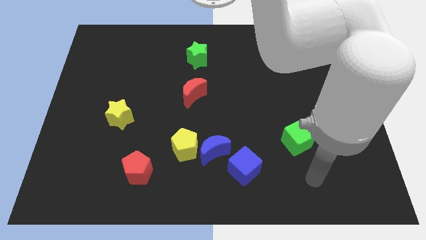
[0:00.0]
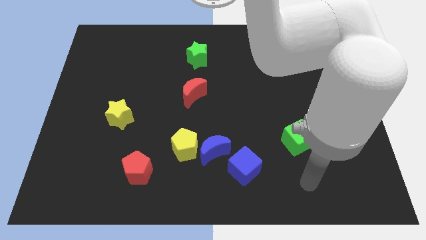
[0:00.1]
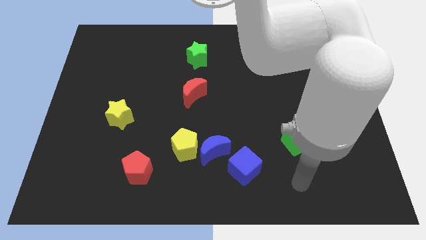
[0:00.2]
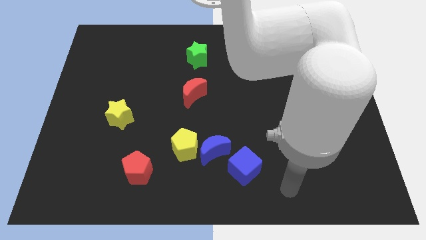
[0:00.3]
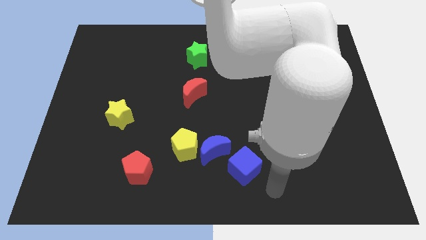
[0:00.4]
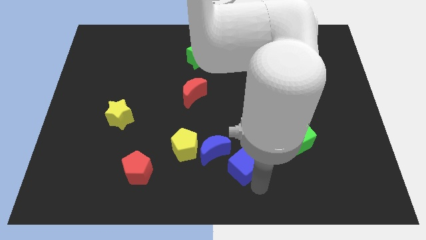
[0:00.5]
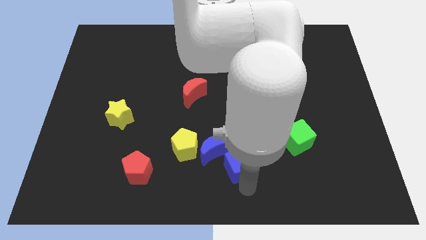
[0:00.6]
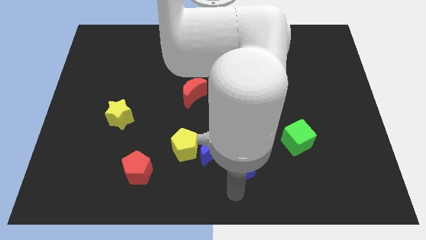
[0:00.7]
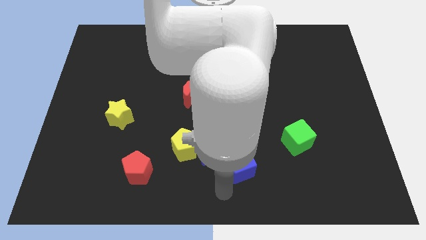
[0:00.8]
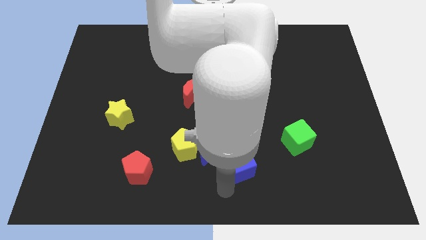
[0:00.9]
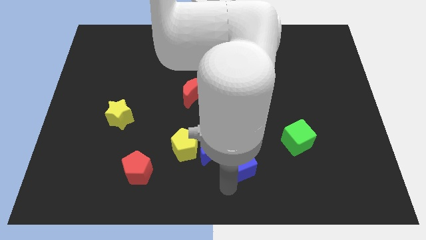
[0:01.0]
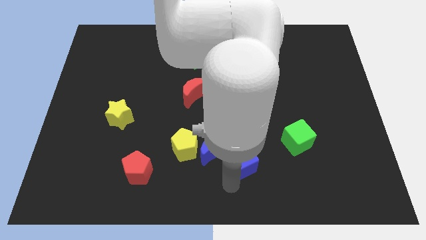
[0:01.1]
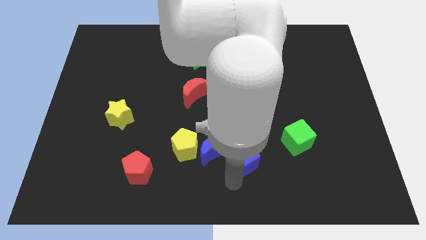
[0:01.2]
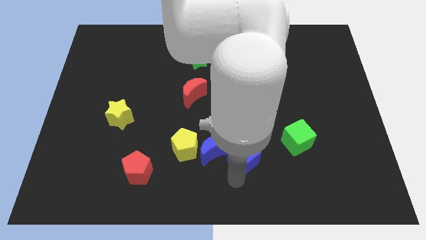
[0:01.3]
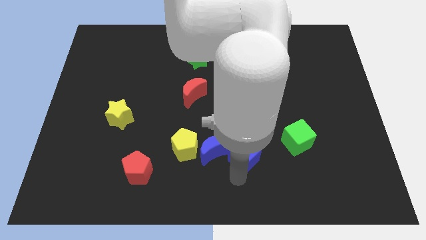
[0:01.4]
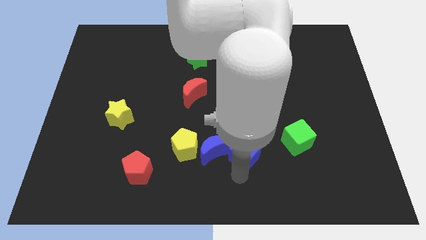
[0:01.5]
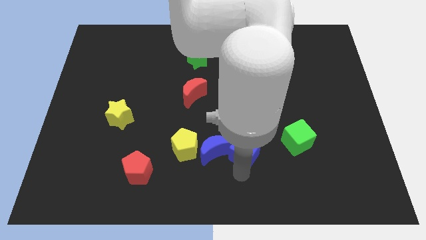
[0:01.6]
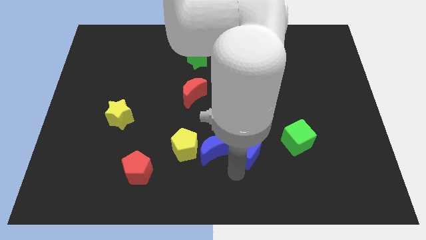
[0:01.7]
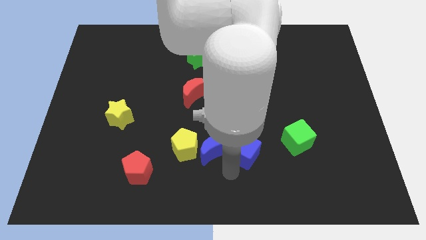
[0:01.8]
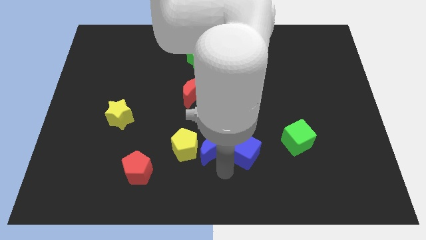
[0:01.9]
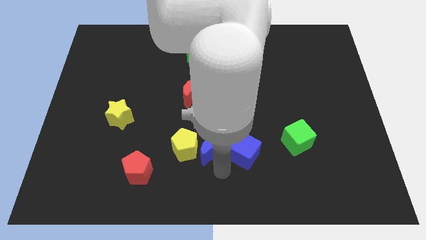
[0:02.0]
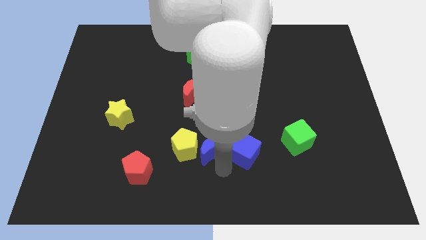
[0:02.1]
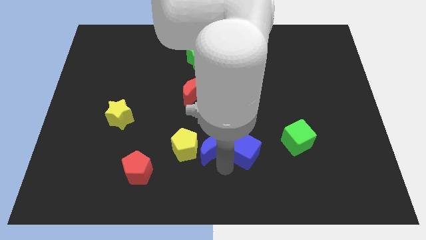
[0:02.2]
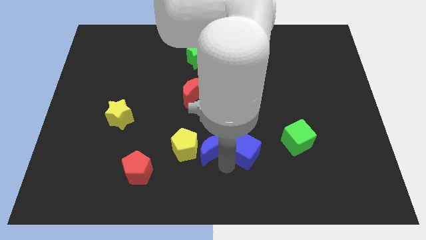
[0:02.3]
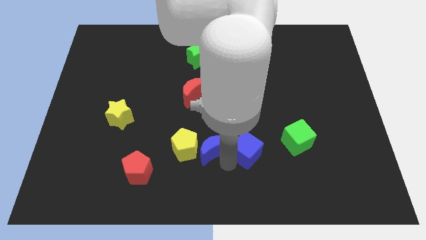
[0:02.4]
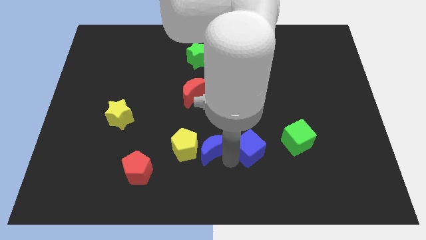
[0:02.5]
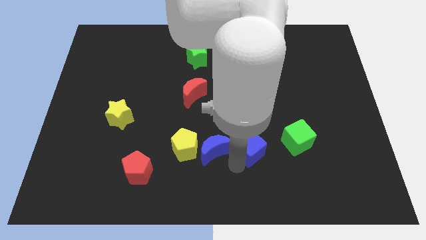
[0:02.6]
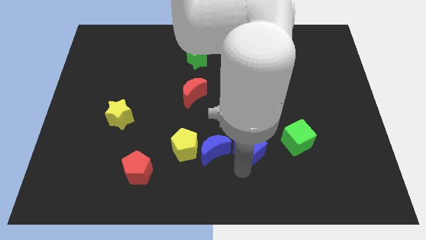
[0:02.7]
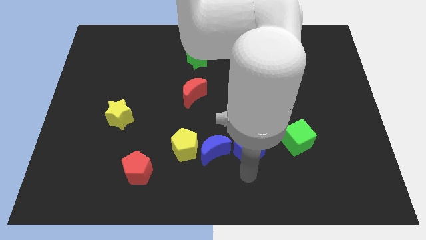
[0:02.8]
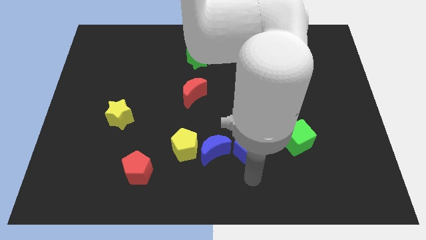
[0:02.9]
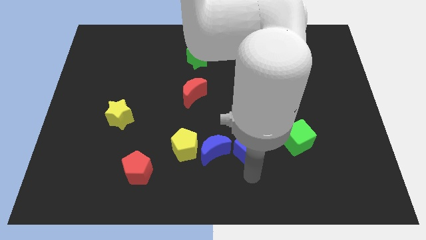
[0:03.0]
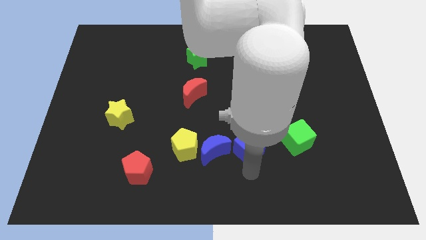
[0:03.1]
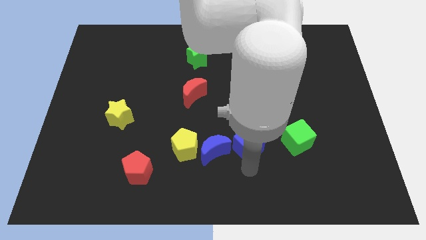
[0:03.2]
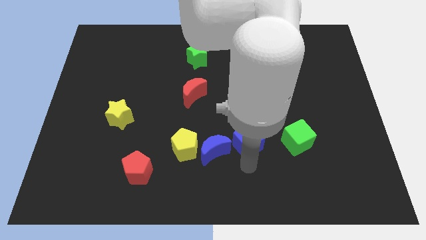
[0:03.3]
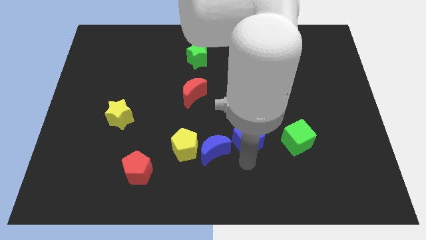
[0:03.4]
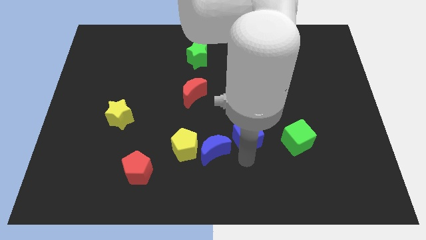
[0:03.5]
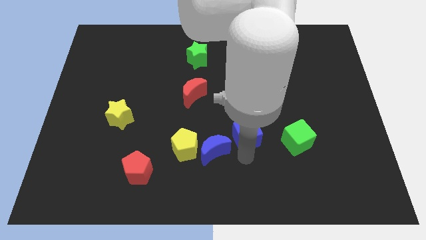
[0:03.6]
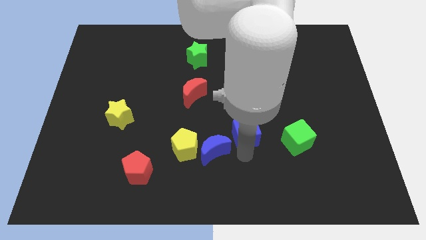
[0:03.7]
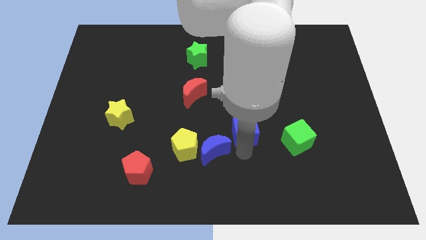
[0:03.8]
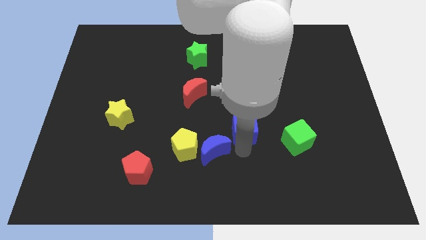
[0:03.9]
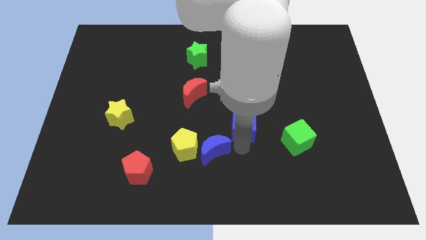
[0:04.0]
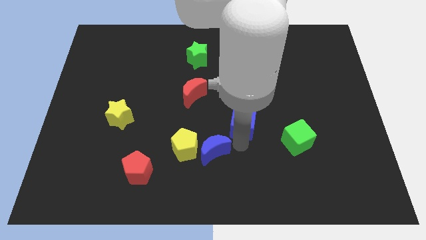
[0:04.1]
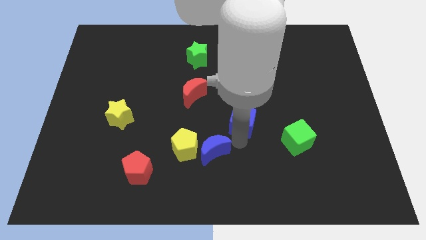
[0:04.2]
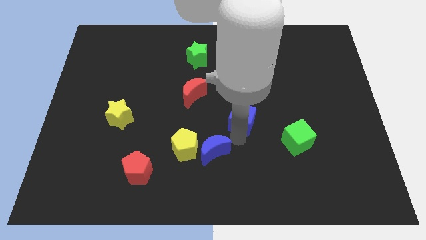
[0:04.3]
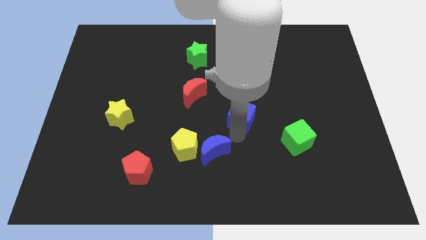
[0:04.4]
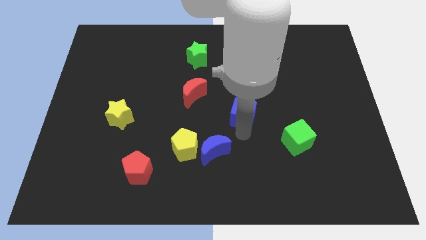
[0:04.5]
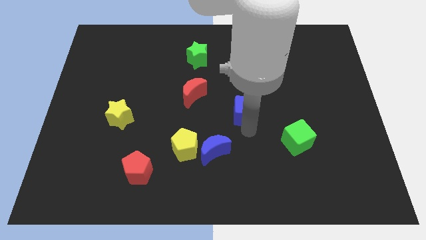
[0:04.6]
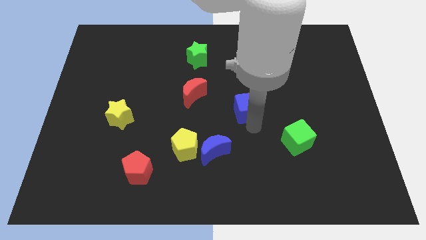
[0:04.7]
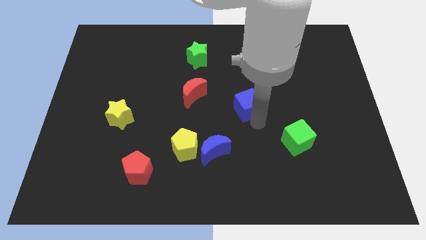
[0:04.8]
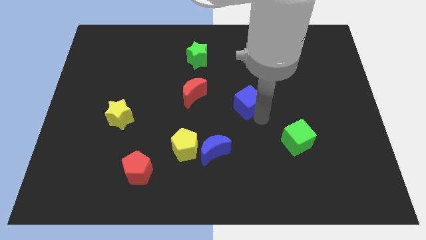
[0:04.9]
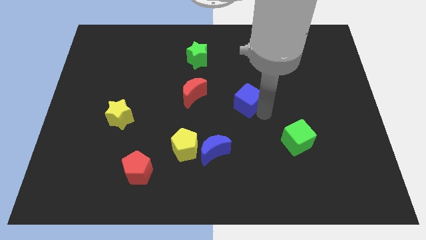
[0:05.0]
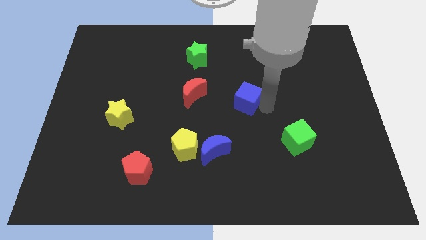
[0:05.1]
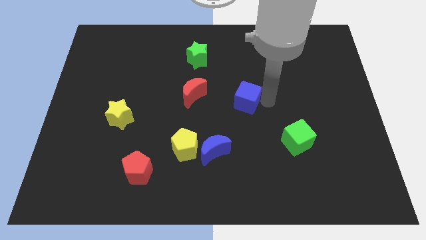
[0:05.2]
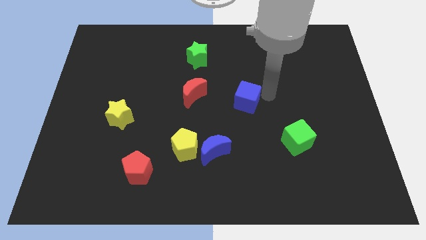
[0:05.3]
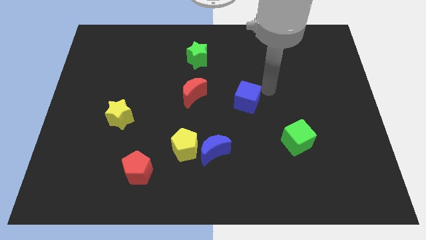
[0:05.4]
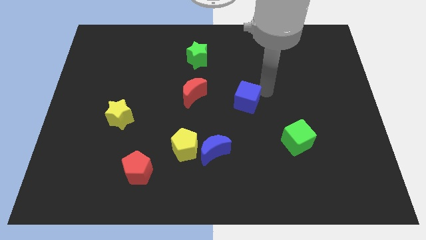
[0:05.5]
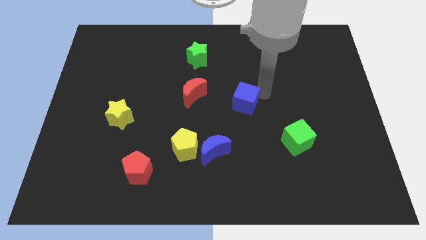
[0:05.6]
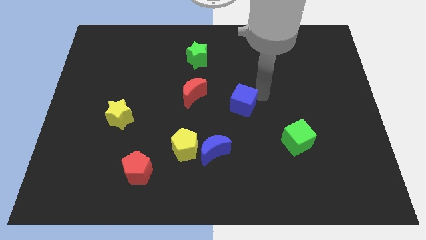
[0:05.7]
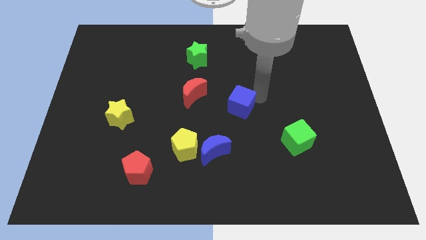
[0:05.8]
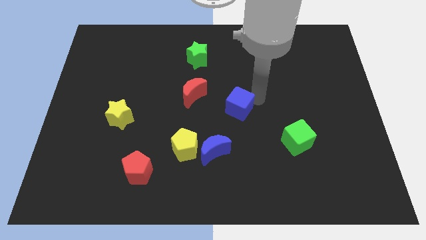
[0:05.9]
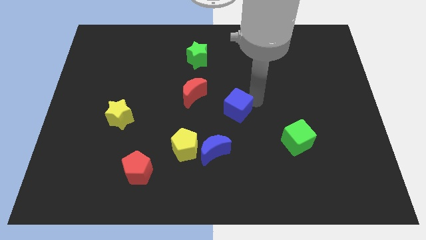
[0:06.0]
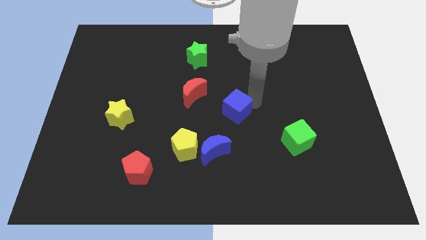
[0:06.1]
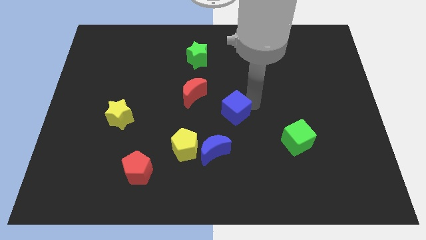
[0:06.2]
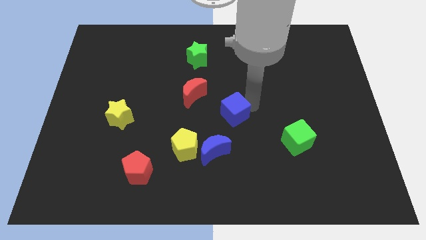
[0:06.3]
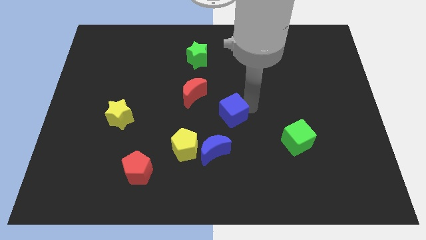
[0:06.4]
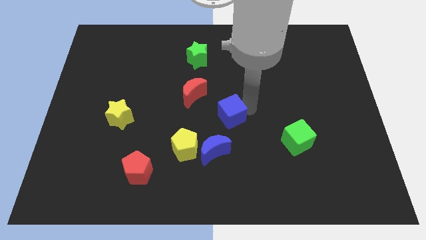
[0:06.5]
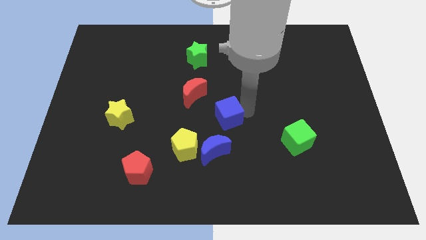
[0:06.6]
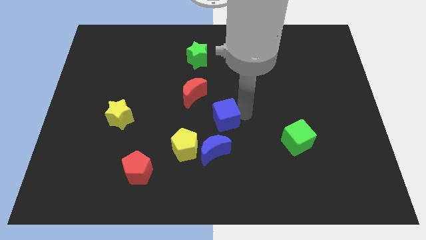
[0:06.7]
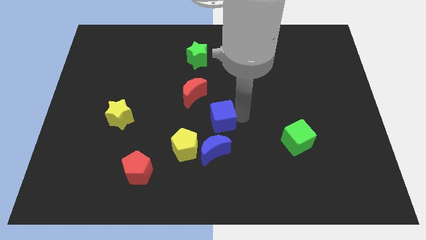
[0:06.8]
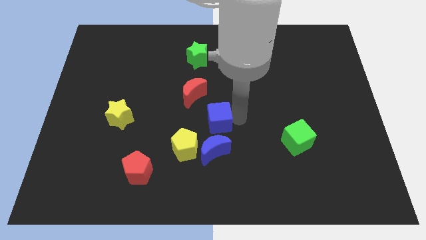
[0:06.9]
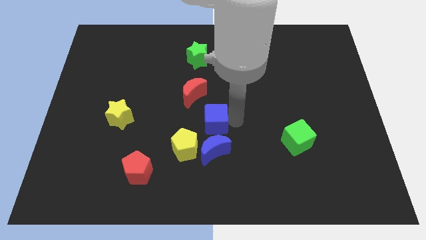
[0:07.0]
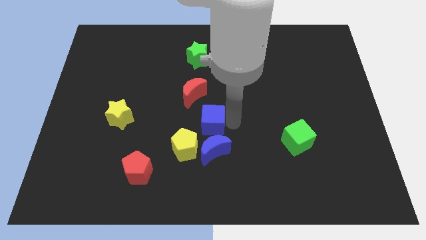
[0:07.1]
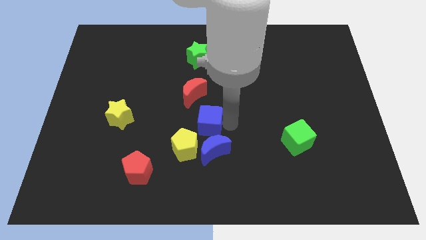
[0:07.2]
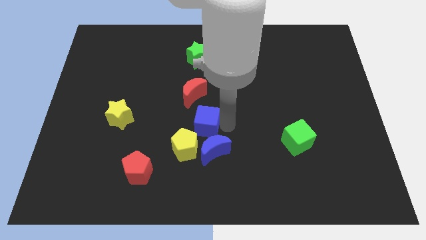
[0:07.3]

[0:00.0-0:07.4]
move the blue cube to the top of the yellow pentagon

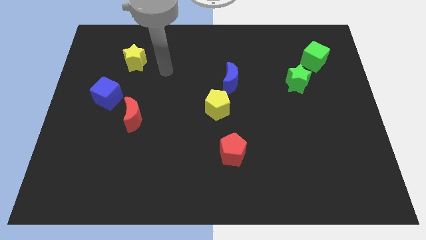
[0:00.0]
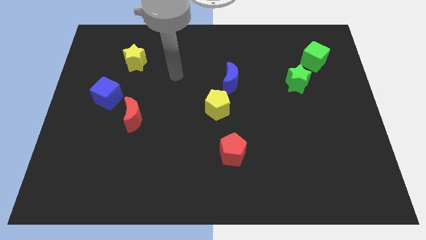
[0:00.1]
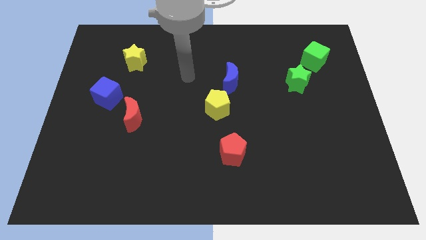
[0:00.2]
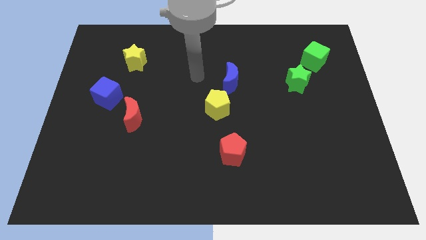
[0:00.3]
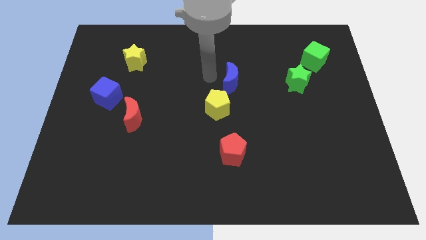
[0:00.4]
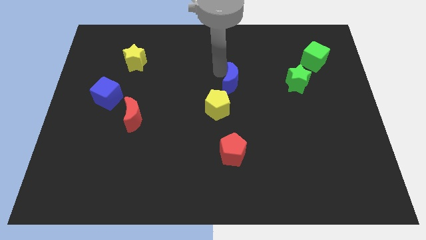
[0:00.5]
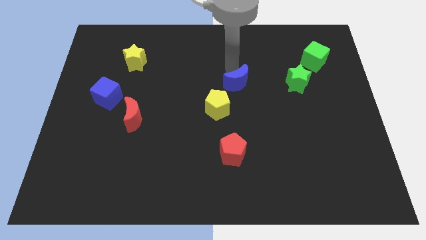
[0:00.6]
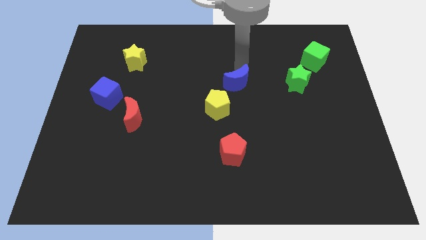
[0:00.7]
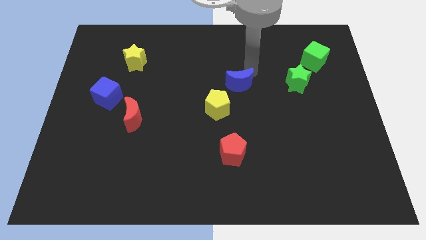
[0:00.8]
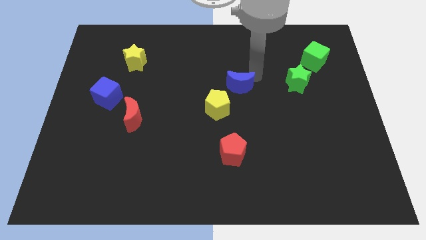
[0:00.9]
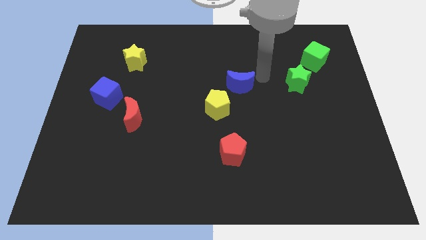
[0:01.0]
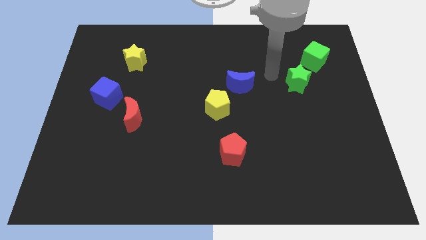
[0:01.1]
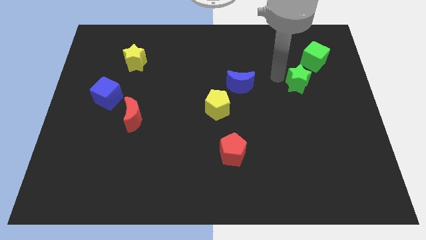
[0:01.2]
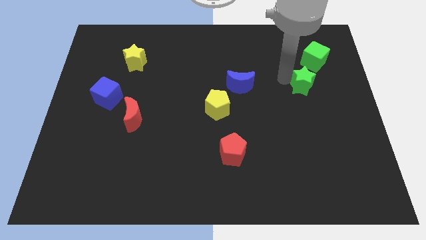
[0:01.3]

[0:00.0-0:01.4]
move the green star to the bottom of the green cube
